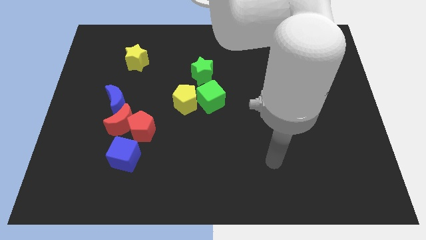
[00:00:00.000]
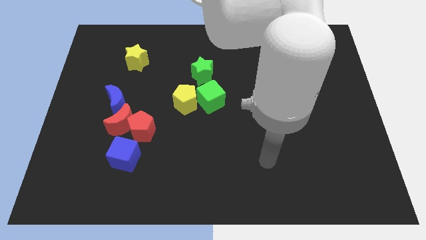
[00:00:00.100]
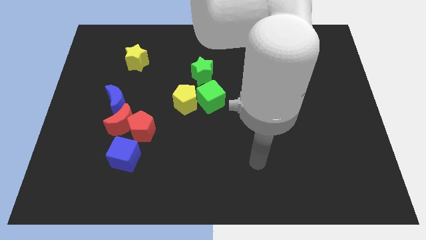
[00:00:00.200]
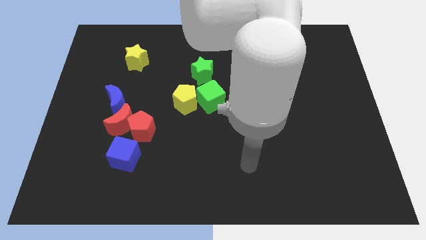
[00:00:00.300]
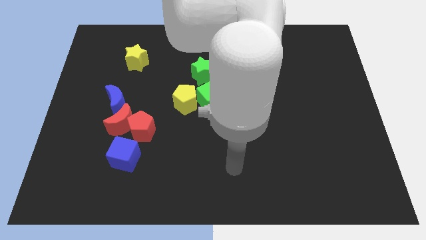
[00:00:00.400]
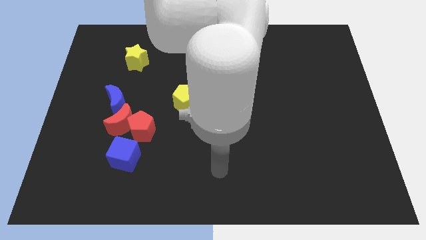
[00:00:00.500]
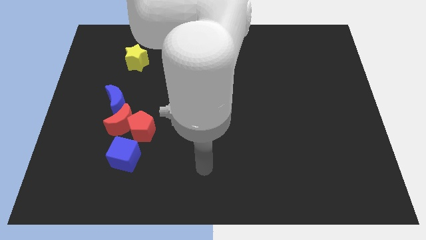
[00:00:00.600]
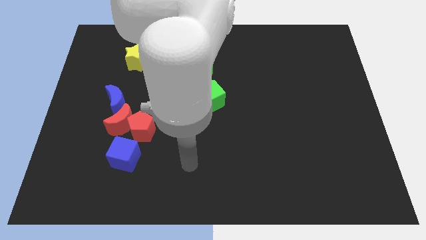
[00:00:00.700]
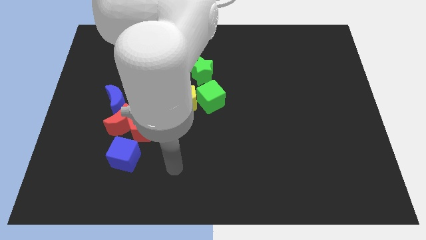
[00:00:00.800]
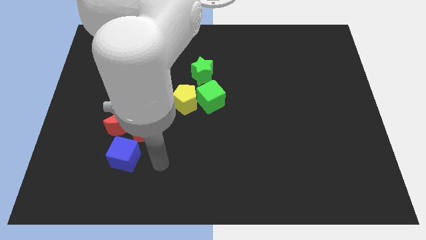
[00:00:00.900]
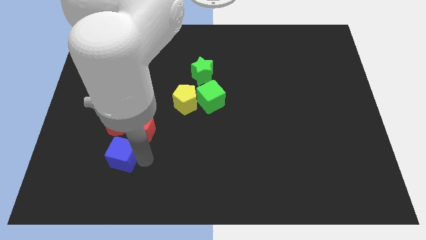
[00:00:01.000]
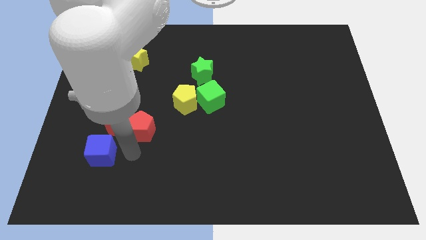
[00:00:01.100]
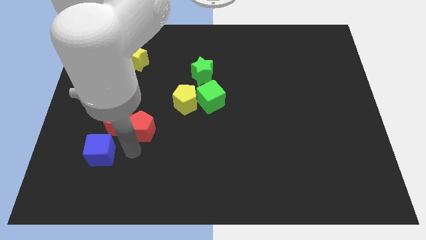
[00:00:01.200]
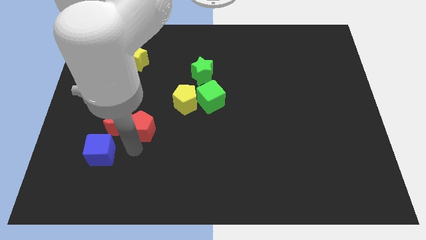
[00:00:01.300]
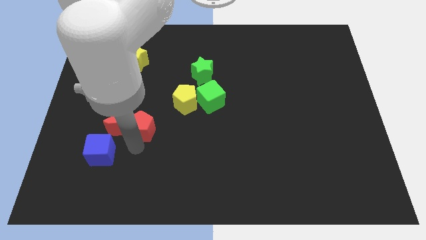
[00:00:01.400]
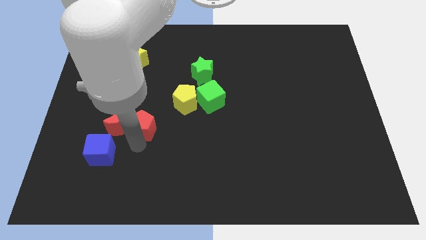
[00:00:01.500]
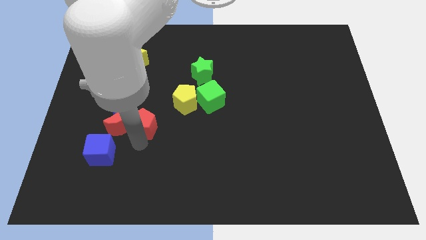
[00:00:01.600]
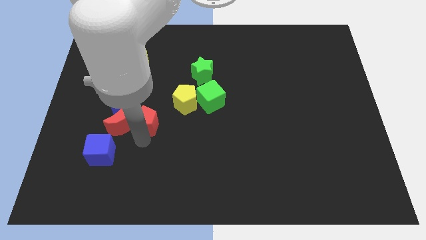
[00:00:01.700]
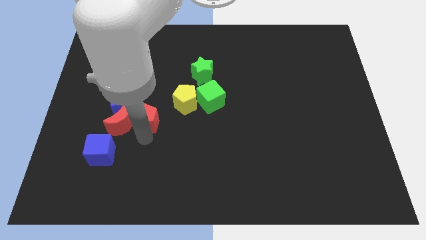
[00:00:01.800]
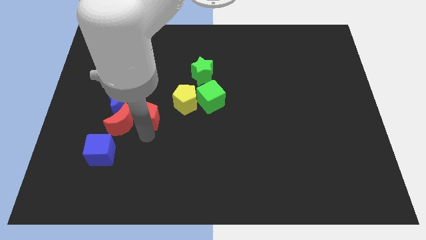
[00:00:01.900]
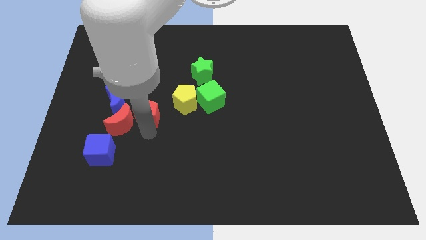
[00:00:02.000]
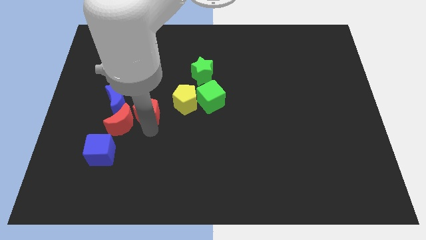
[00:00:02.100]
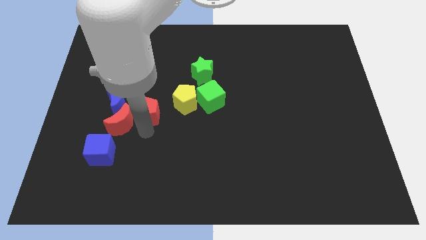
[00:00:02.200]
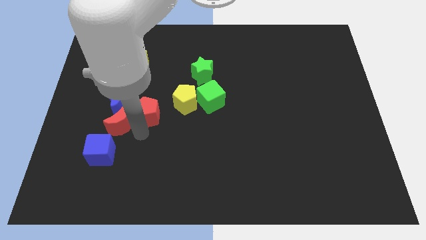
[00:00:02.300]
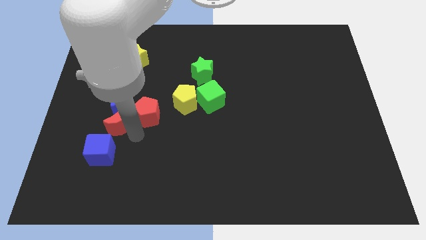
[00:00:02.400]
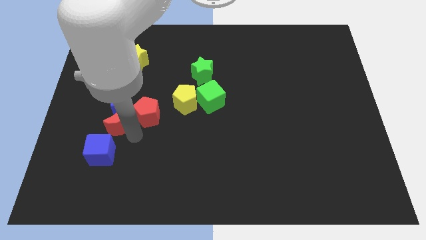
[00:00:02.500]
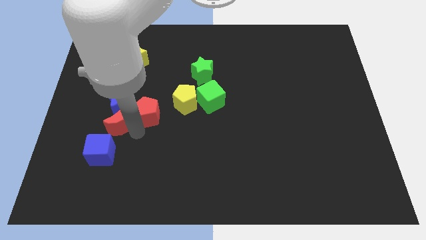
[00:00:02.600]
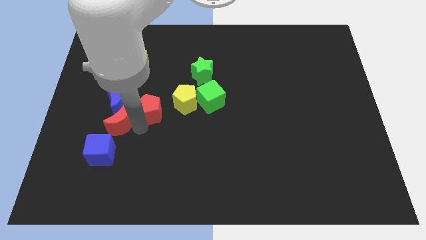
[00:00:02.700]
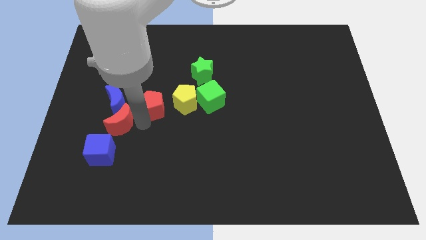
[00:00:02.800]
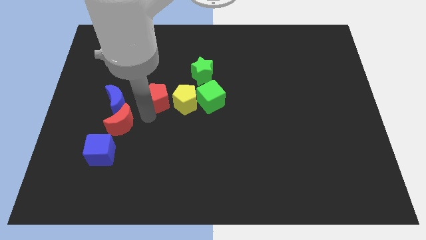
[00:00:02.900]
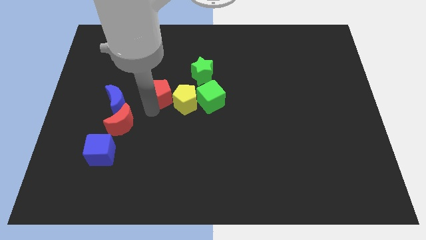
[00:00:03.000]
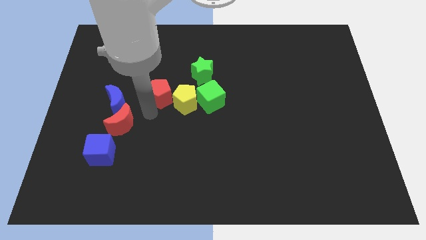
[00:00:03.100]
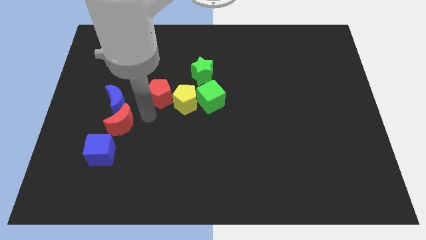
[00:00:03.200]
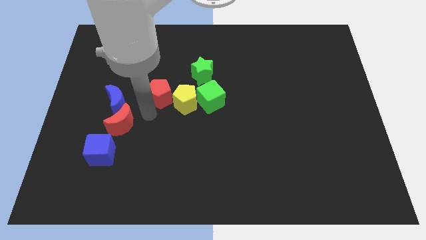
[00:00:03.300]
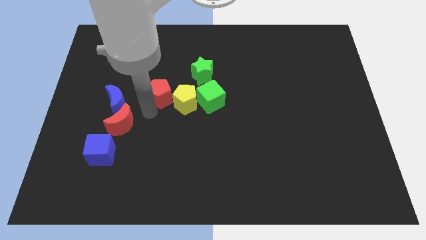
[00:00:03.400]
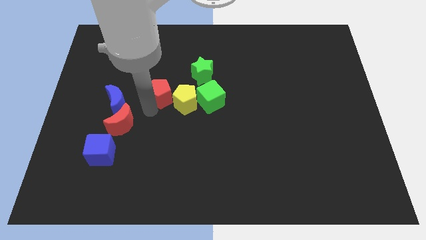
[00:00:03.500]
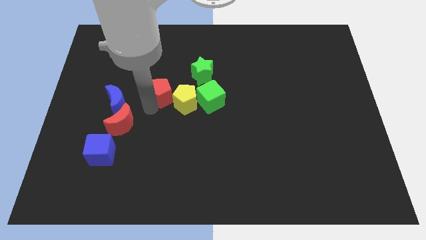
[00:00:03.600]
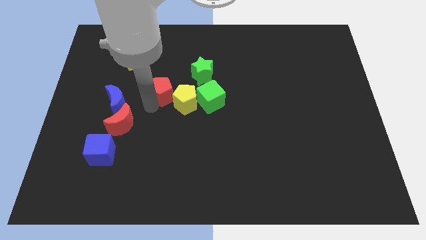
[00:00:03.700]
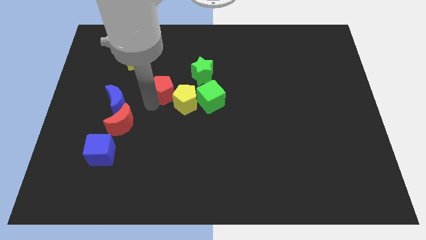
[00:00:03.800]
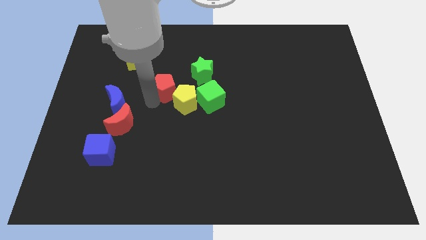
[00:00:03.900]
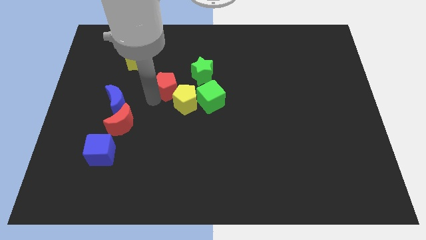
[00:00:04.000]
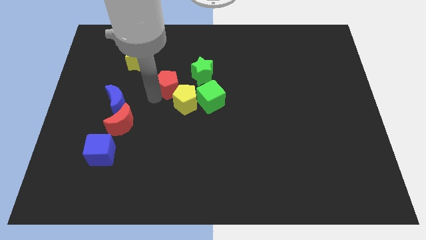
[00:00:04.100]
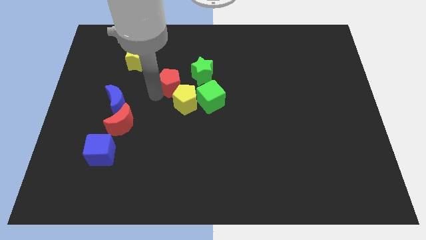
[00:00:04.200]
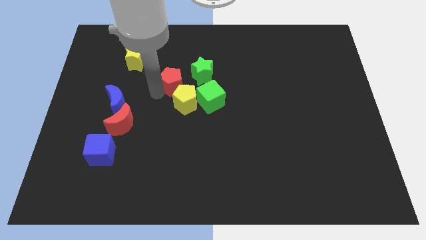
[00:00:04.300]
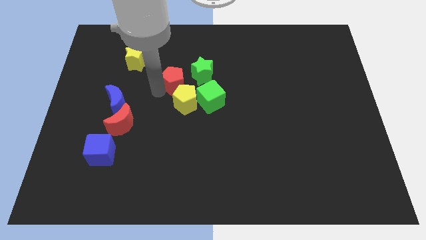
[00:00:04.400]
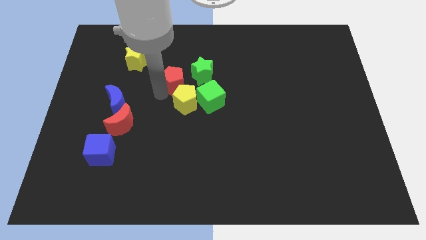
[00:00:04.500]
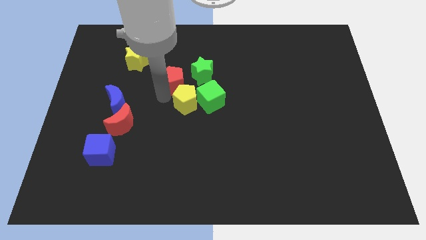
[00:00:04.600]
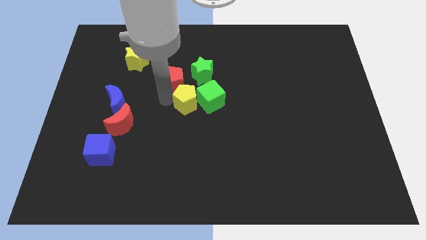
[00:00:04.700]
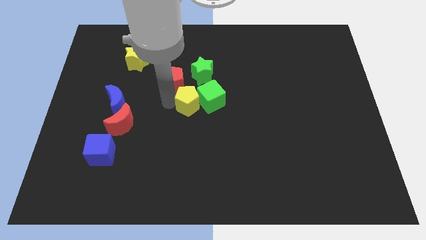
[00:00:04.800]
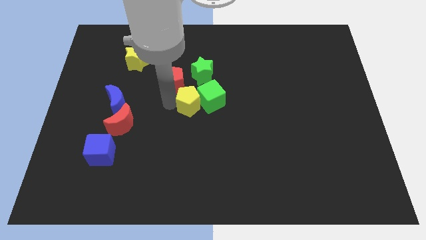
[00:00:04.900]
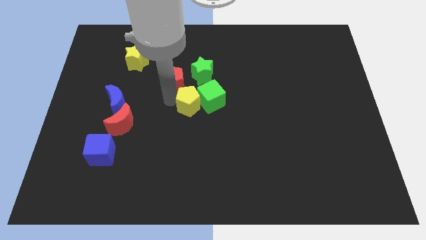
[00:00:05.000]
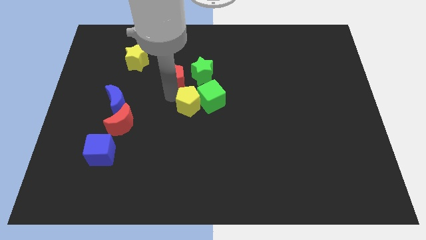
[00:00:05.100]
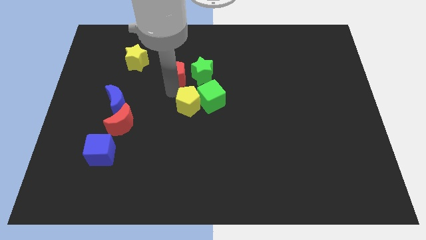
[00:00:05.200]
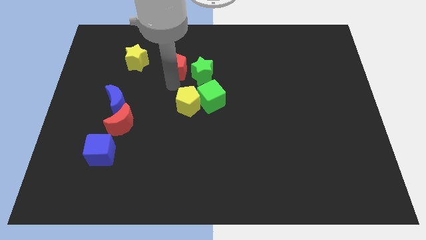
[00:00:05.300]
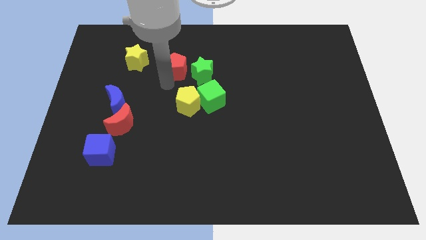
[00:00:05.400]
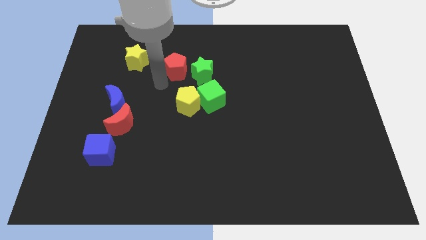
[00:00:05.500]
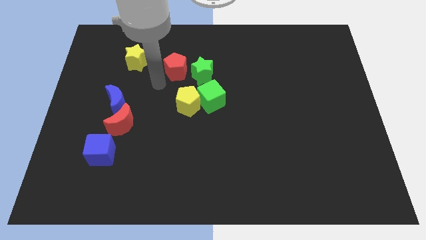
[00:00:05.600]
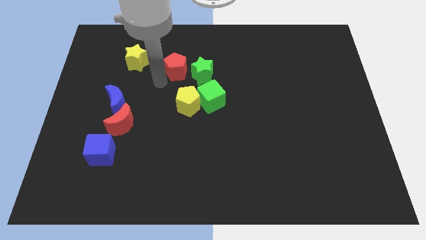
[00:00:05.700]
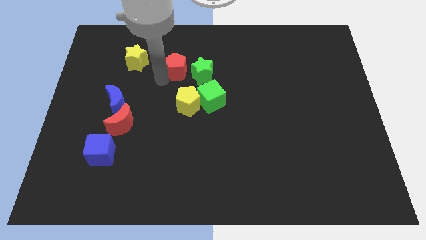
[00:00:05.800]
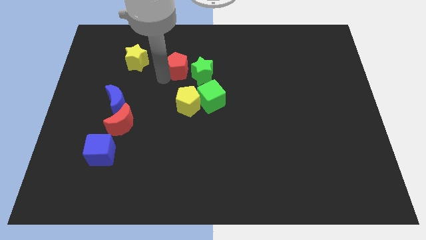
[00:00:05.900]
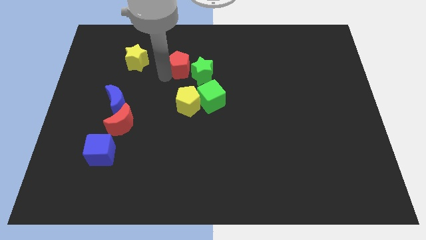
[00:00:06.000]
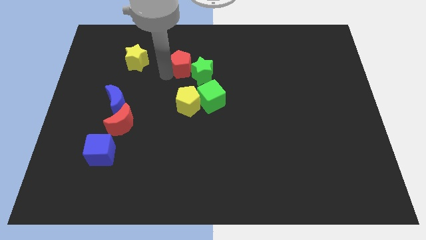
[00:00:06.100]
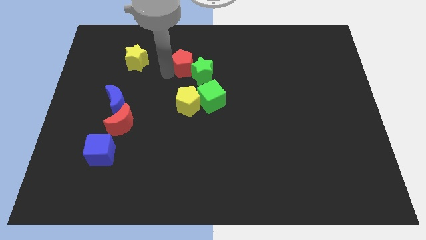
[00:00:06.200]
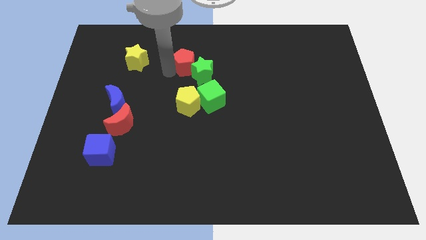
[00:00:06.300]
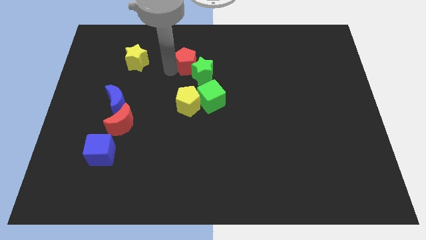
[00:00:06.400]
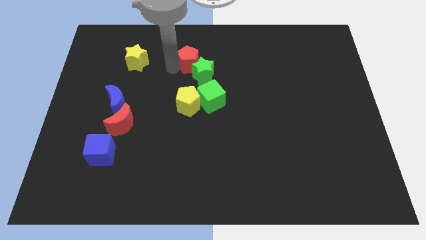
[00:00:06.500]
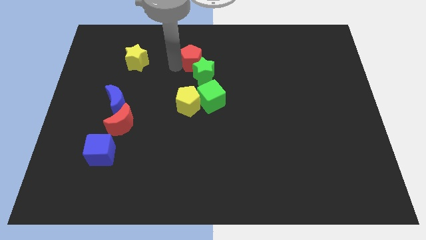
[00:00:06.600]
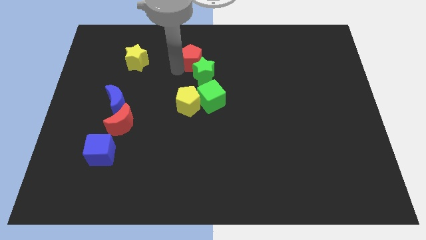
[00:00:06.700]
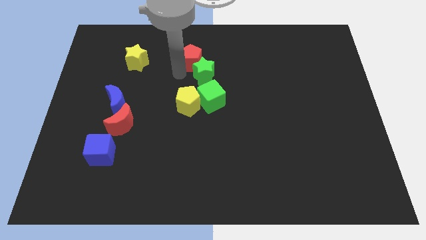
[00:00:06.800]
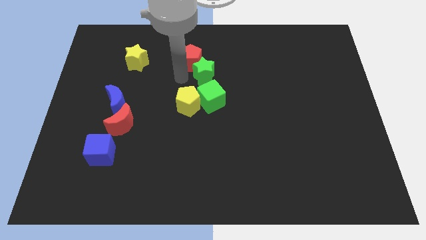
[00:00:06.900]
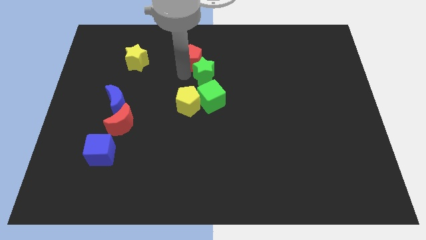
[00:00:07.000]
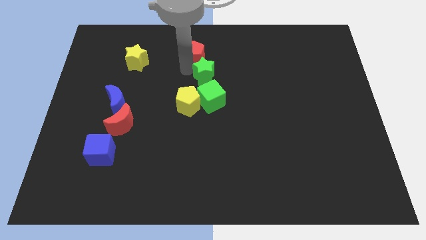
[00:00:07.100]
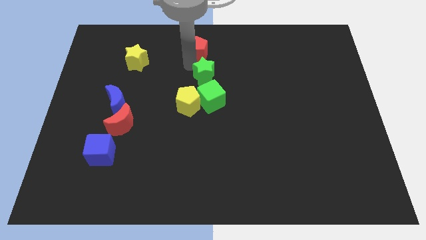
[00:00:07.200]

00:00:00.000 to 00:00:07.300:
push the red pentagon to the top
